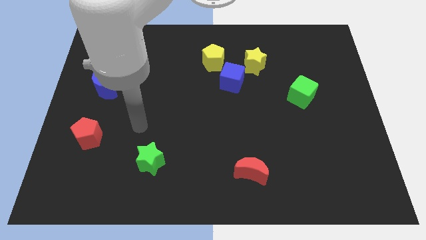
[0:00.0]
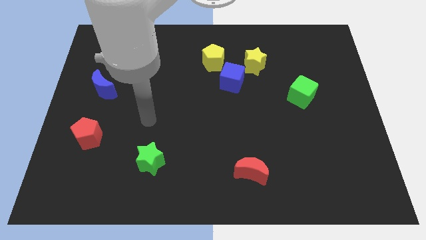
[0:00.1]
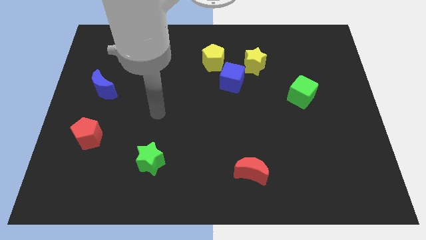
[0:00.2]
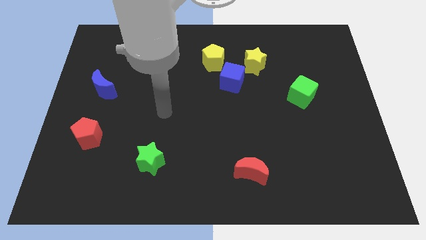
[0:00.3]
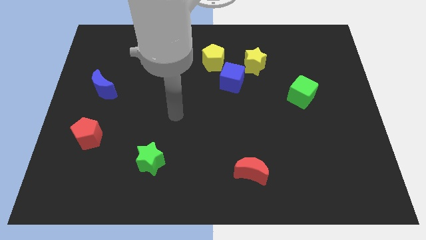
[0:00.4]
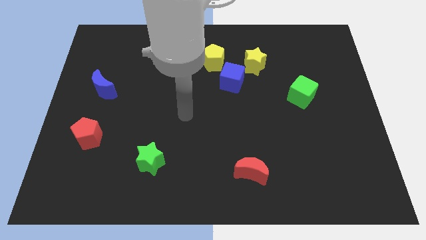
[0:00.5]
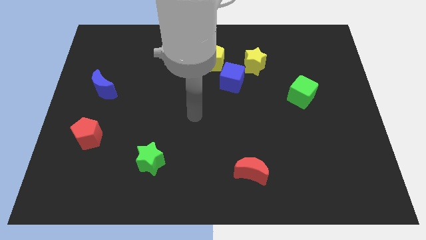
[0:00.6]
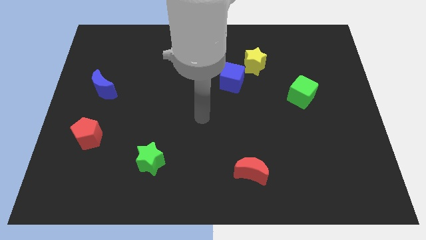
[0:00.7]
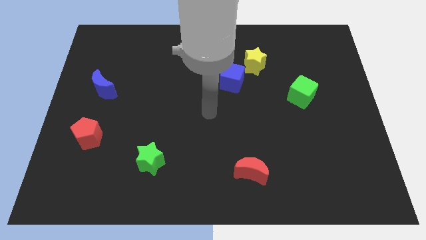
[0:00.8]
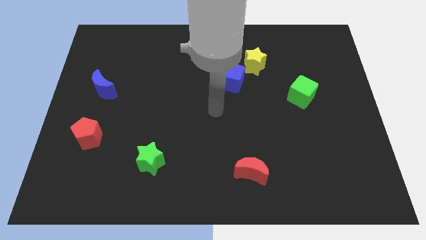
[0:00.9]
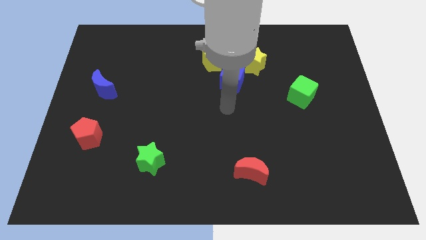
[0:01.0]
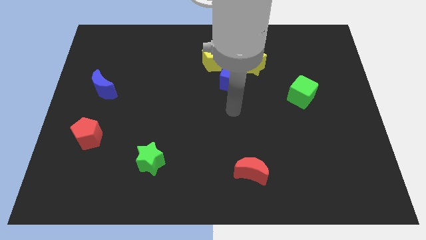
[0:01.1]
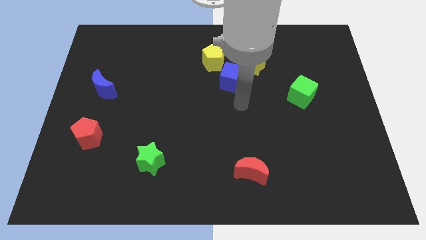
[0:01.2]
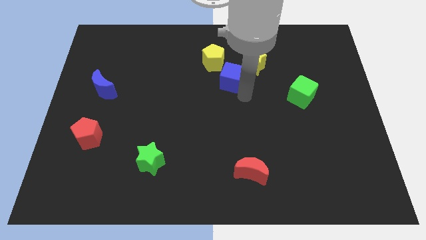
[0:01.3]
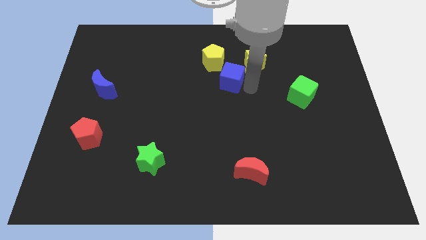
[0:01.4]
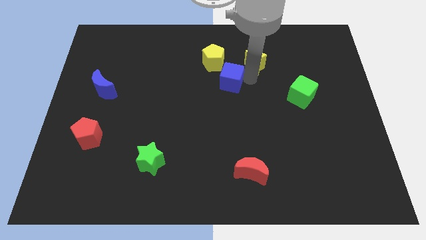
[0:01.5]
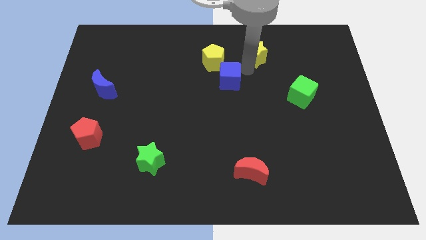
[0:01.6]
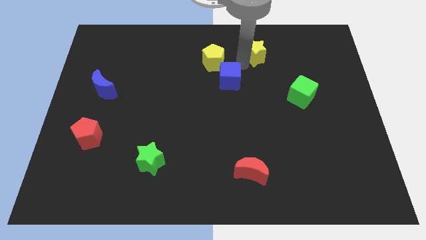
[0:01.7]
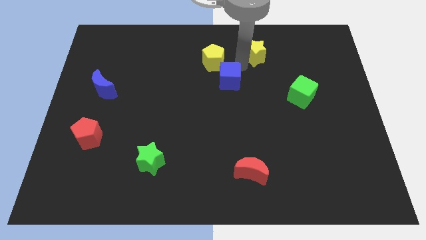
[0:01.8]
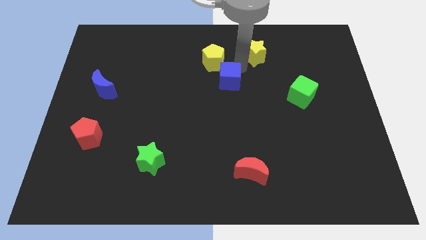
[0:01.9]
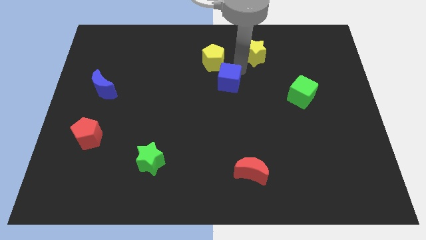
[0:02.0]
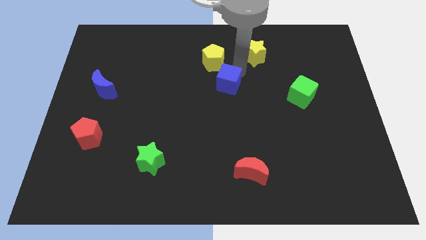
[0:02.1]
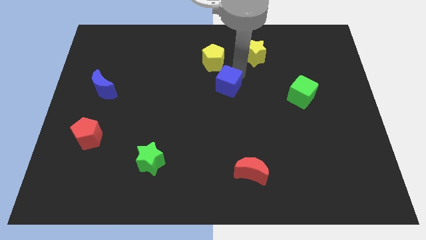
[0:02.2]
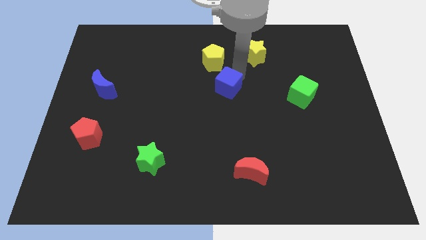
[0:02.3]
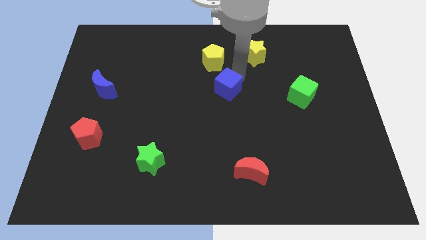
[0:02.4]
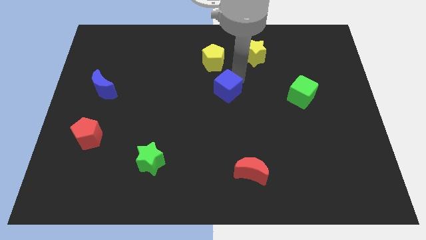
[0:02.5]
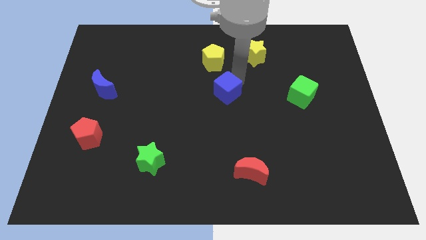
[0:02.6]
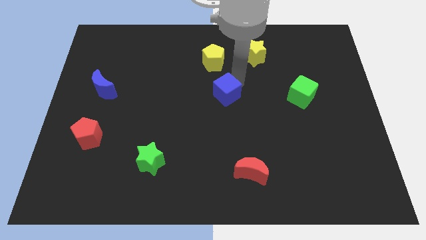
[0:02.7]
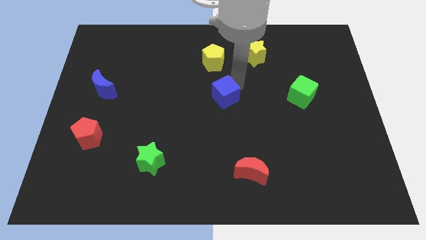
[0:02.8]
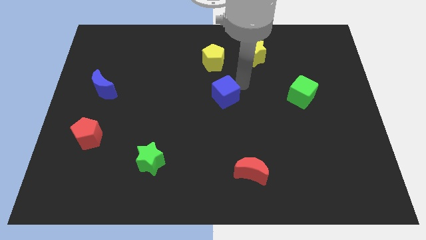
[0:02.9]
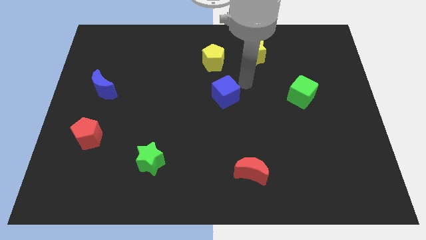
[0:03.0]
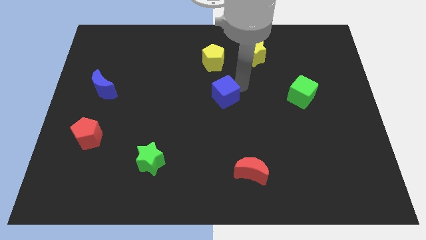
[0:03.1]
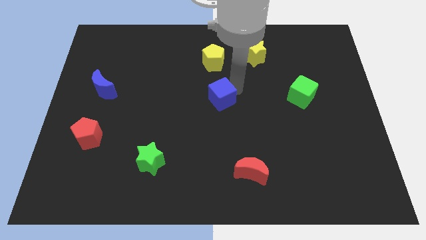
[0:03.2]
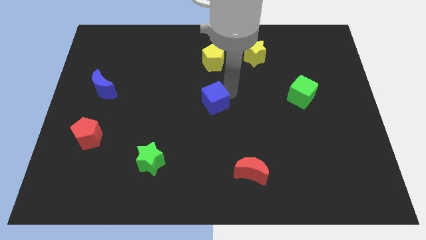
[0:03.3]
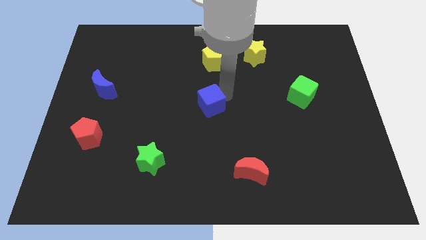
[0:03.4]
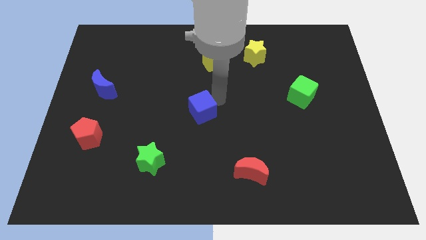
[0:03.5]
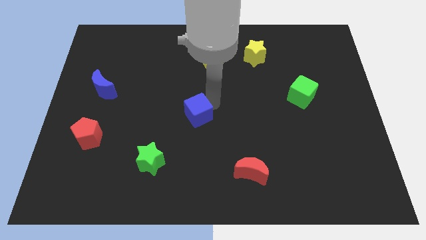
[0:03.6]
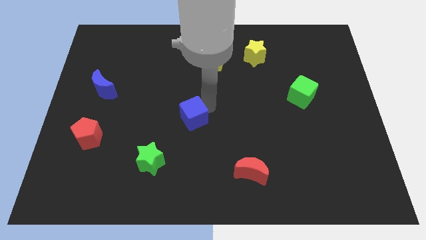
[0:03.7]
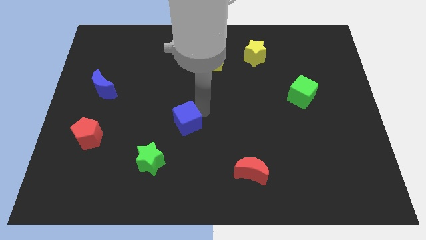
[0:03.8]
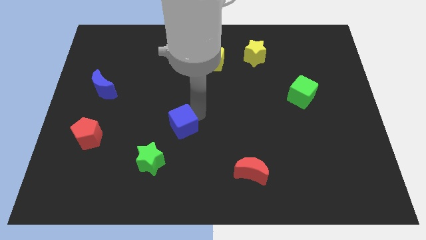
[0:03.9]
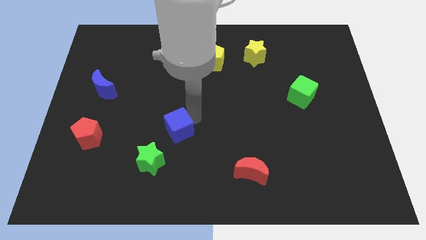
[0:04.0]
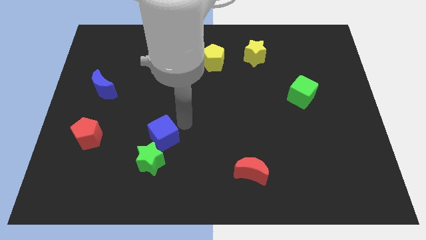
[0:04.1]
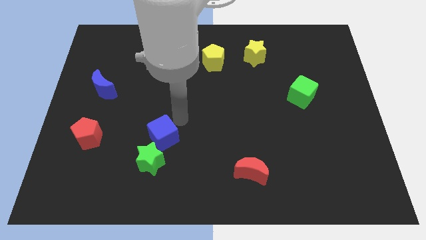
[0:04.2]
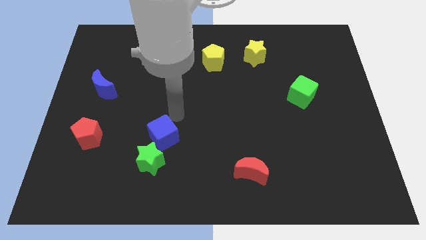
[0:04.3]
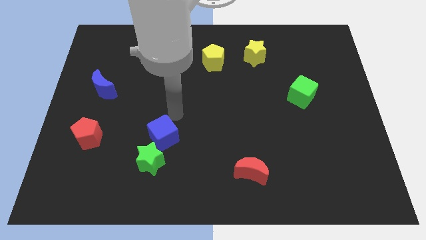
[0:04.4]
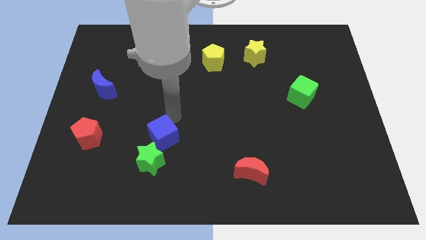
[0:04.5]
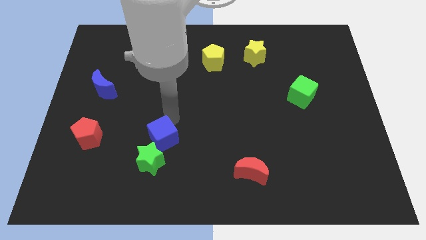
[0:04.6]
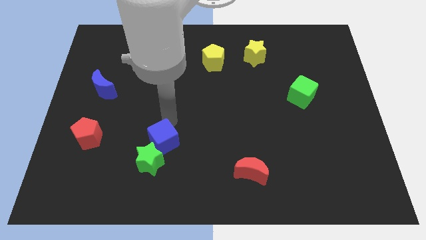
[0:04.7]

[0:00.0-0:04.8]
put the blue cube close to the green star

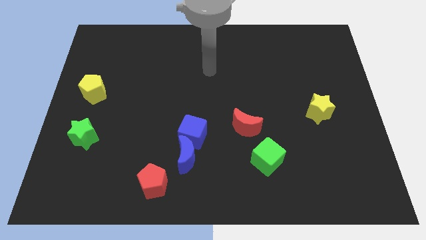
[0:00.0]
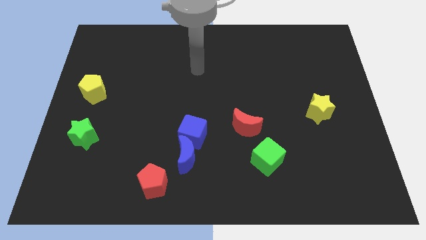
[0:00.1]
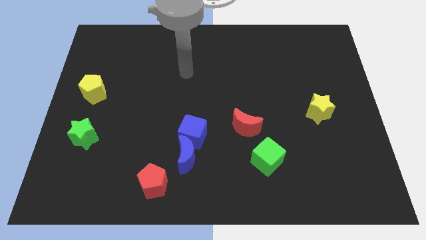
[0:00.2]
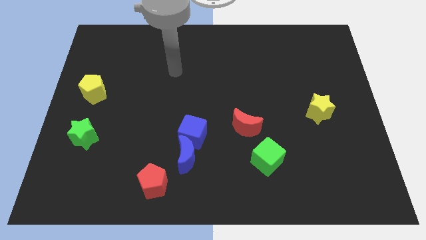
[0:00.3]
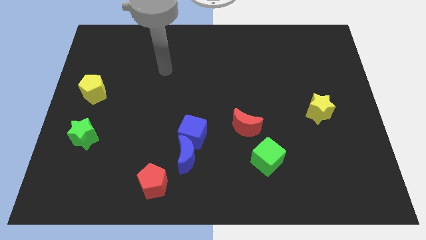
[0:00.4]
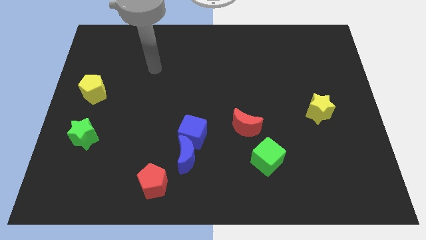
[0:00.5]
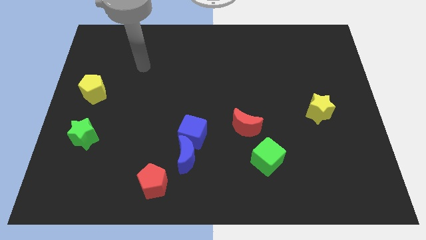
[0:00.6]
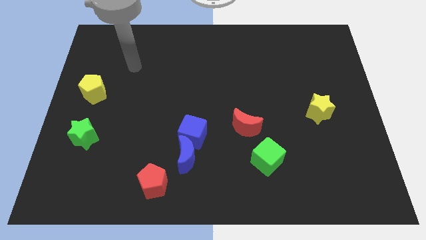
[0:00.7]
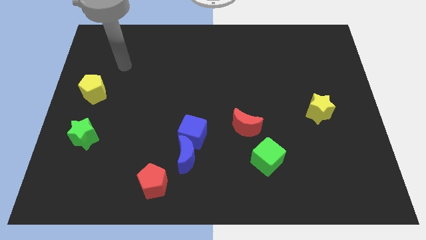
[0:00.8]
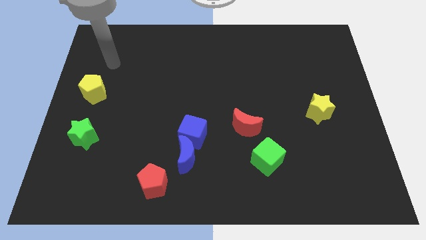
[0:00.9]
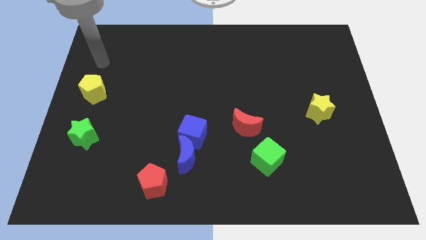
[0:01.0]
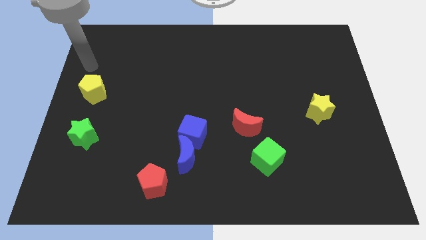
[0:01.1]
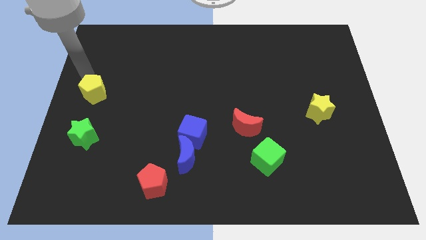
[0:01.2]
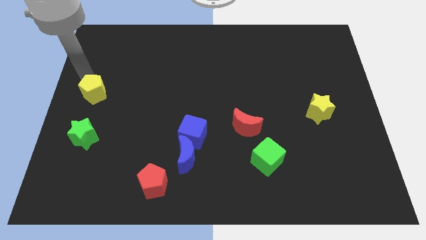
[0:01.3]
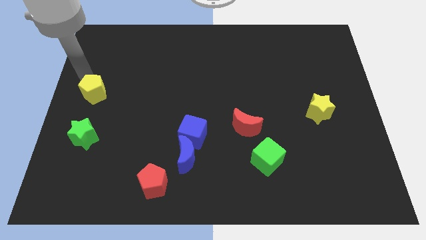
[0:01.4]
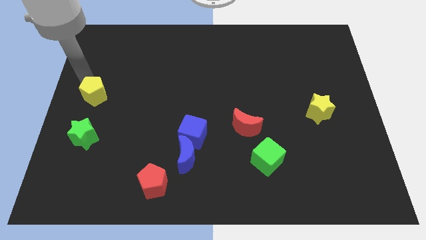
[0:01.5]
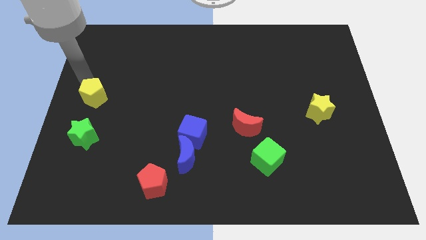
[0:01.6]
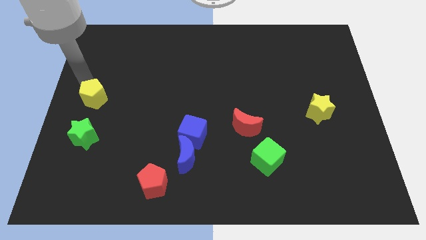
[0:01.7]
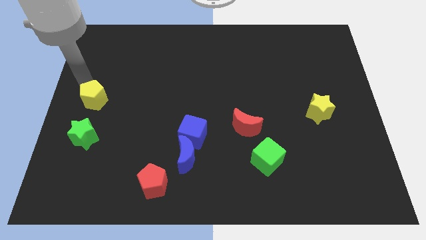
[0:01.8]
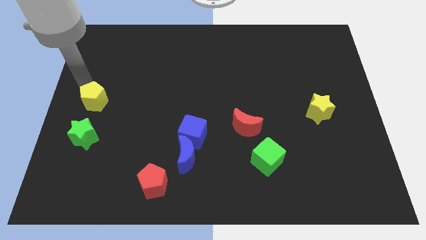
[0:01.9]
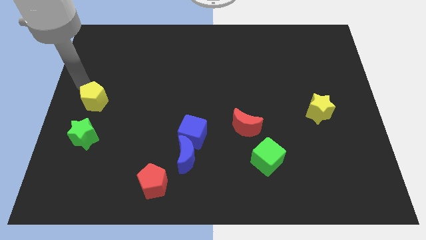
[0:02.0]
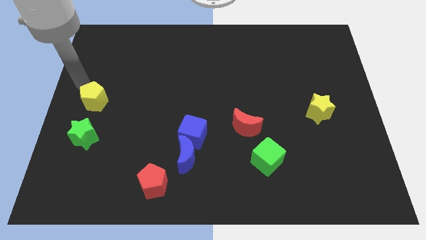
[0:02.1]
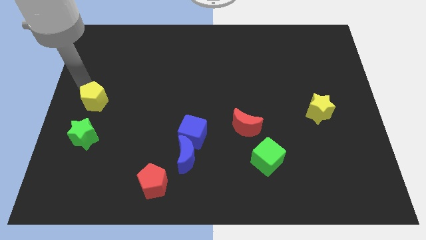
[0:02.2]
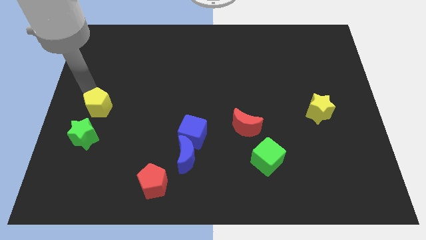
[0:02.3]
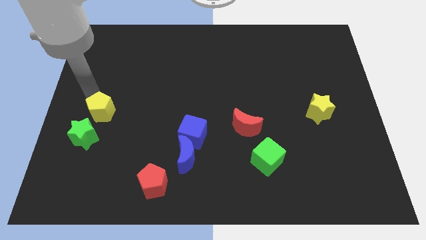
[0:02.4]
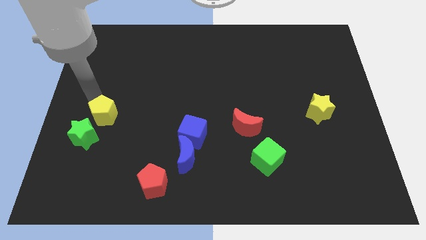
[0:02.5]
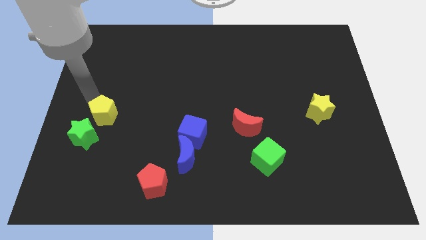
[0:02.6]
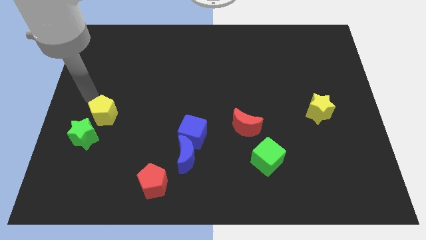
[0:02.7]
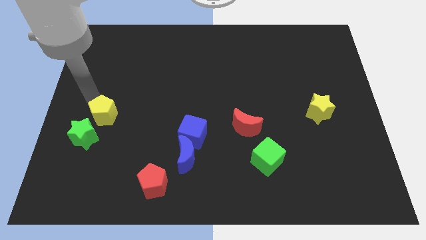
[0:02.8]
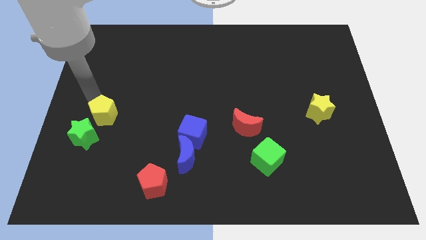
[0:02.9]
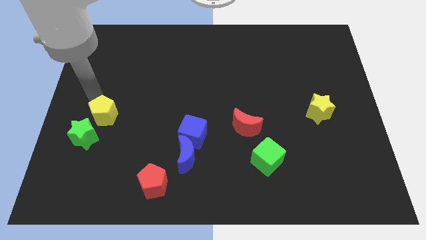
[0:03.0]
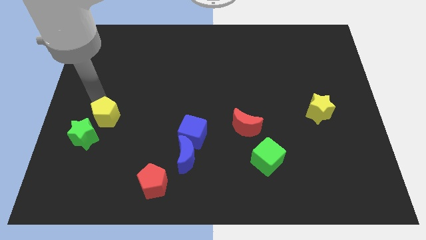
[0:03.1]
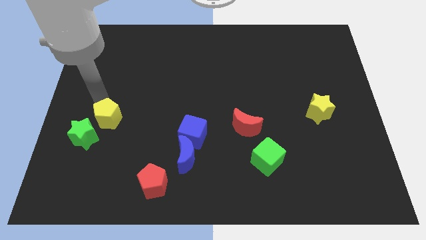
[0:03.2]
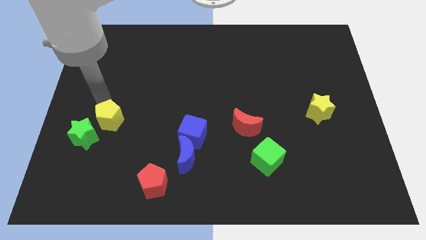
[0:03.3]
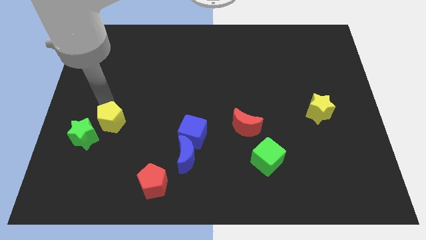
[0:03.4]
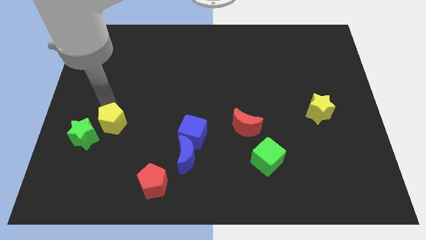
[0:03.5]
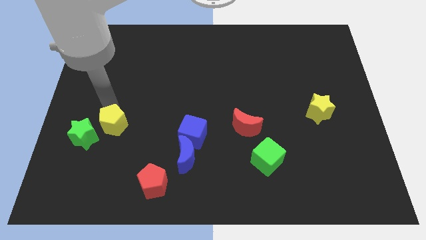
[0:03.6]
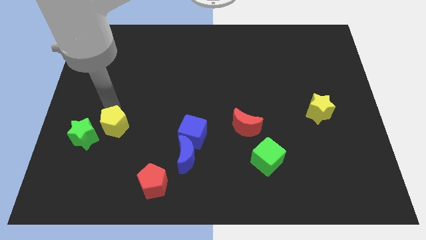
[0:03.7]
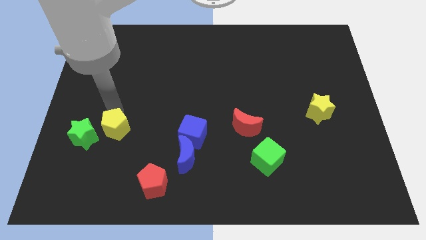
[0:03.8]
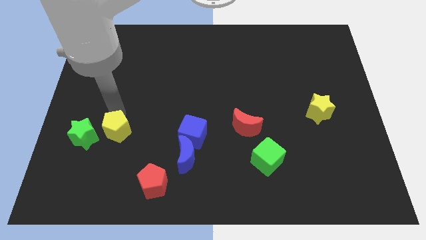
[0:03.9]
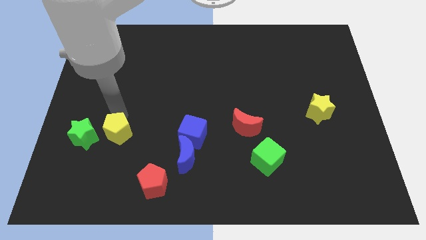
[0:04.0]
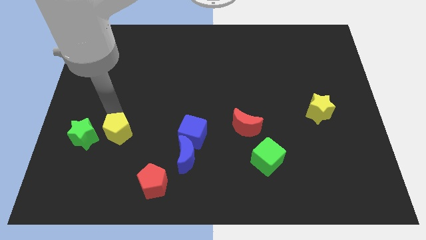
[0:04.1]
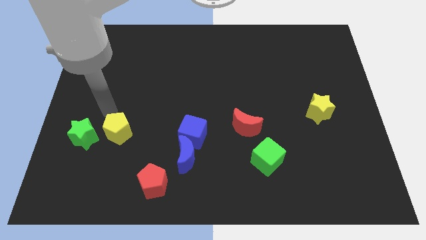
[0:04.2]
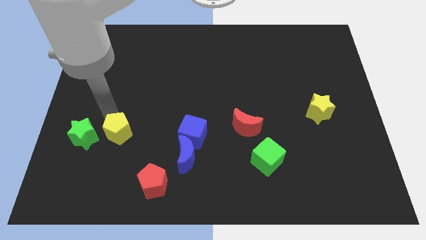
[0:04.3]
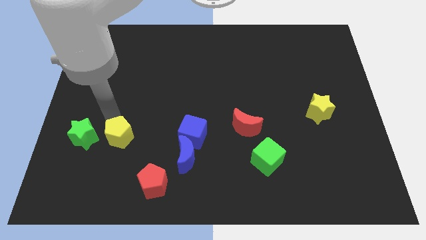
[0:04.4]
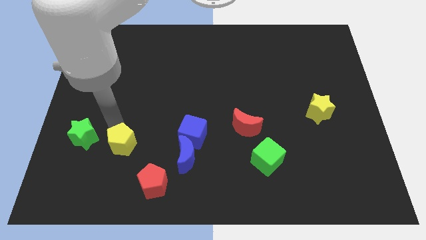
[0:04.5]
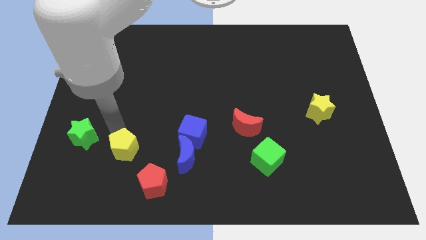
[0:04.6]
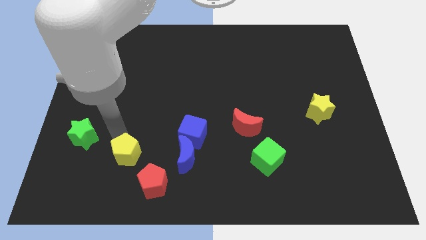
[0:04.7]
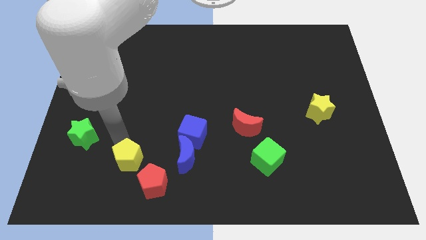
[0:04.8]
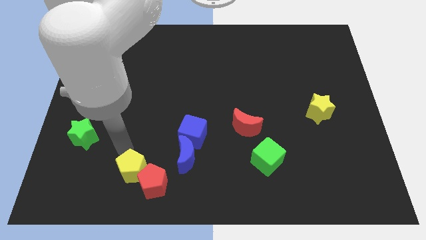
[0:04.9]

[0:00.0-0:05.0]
push the yellow pentagon to the red pentagon
